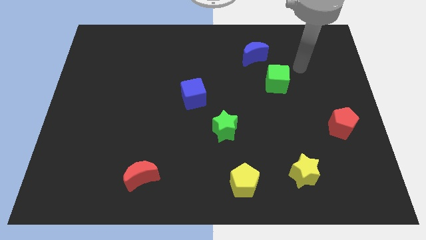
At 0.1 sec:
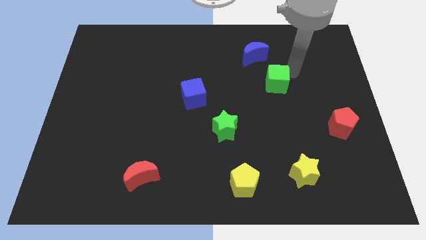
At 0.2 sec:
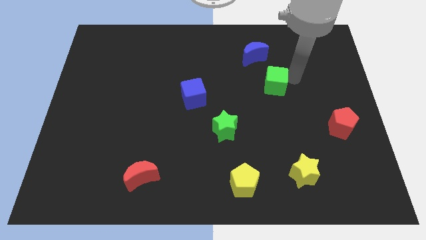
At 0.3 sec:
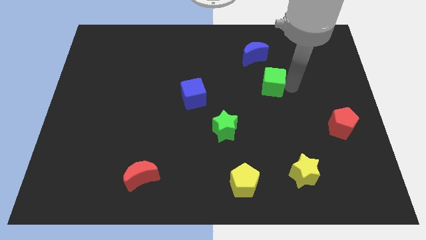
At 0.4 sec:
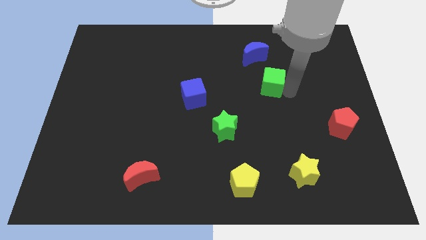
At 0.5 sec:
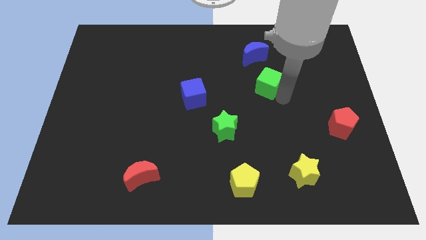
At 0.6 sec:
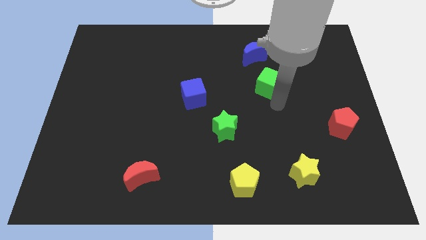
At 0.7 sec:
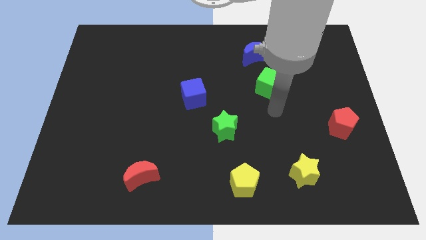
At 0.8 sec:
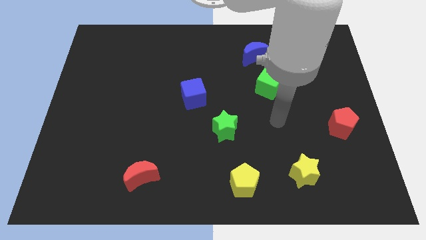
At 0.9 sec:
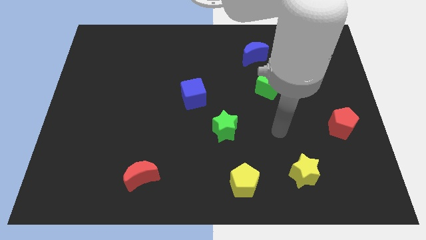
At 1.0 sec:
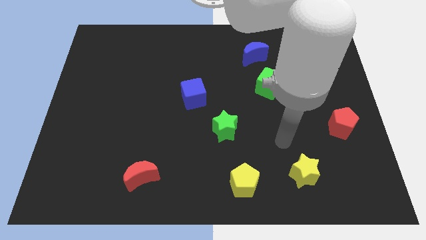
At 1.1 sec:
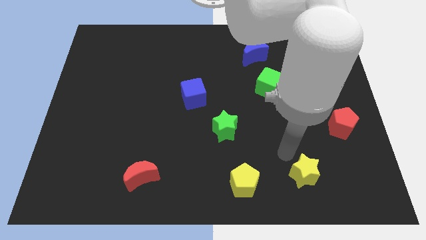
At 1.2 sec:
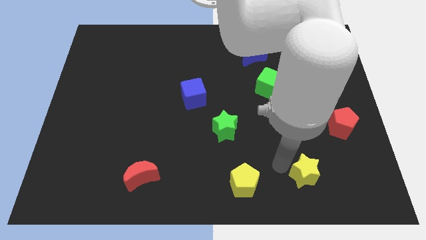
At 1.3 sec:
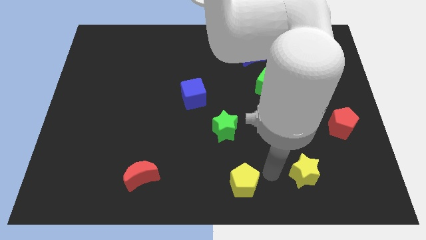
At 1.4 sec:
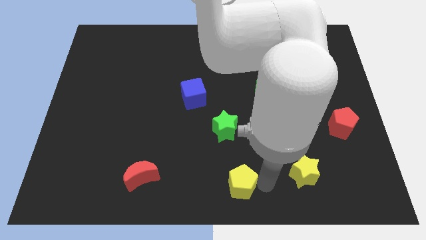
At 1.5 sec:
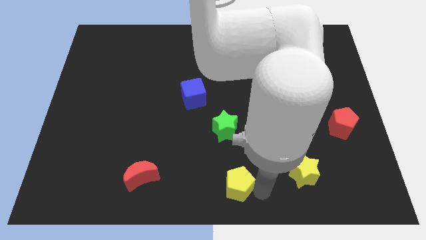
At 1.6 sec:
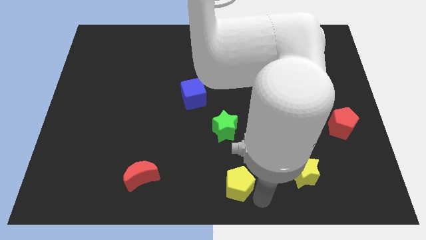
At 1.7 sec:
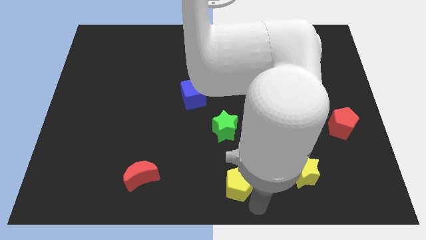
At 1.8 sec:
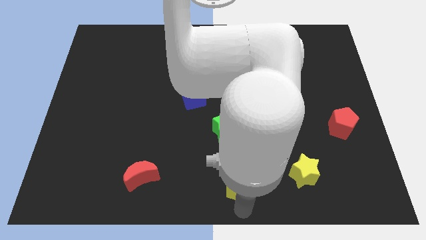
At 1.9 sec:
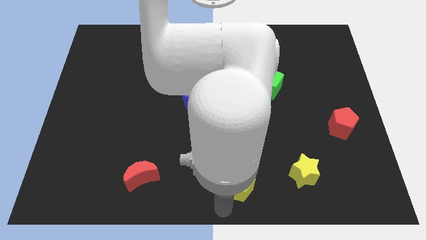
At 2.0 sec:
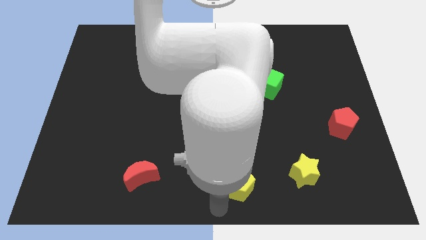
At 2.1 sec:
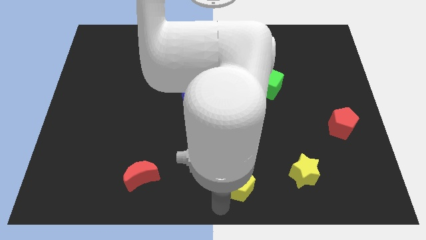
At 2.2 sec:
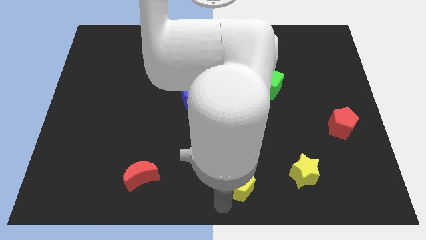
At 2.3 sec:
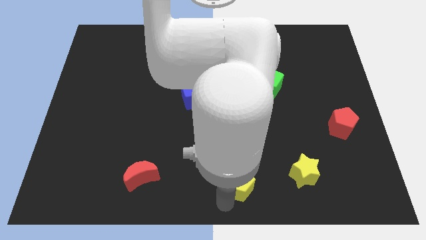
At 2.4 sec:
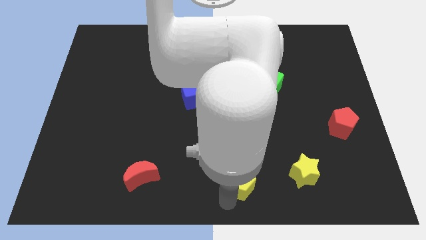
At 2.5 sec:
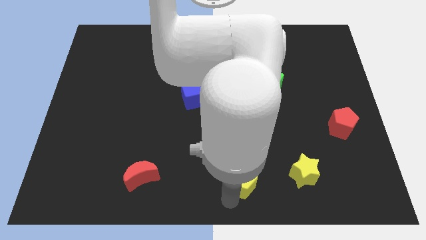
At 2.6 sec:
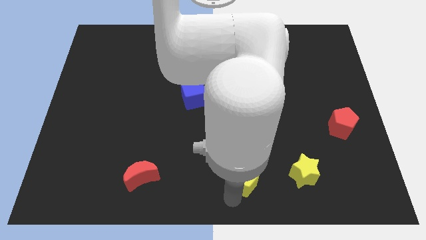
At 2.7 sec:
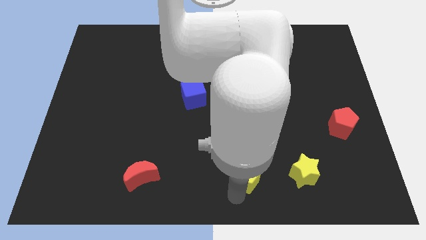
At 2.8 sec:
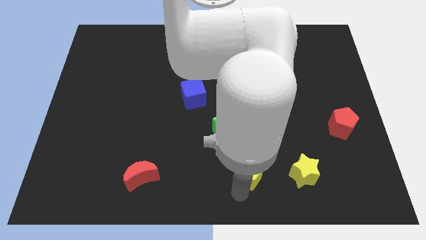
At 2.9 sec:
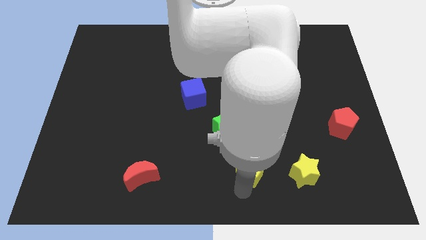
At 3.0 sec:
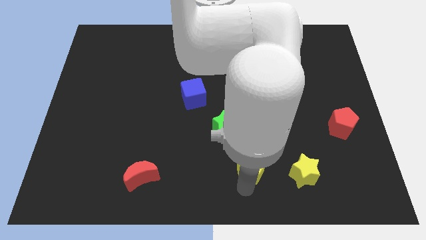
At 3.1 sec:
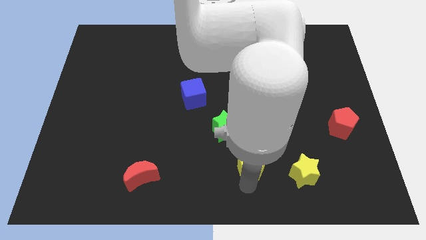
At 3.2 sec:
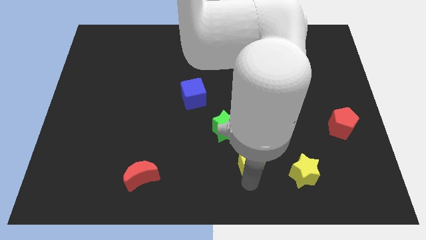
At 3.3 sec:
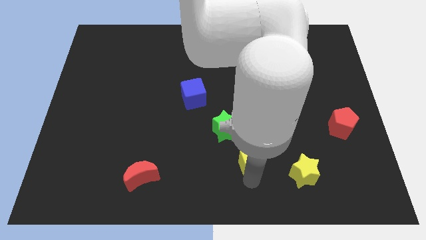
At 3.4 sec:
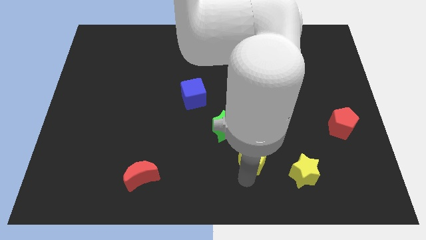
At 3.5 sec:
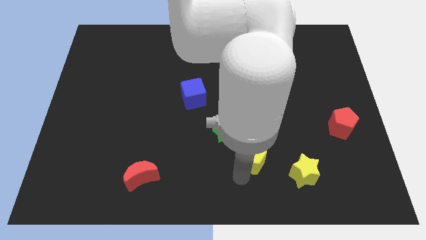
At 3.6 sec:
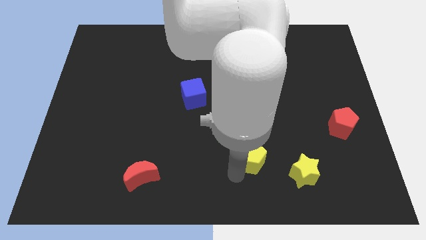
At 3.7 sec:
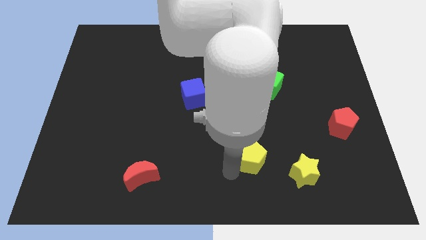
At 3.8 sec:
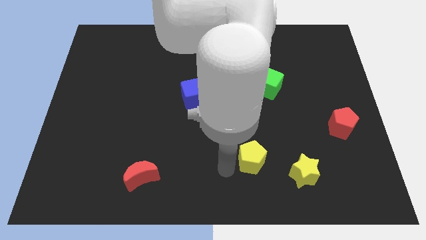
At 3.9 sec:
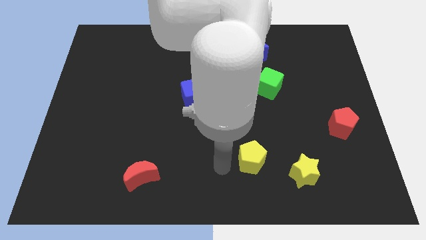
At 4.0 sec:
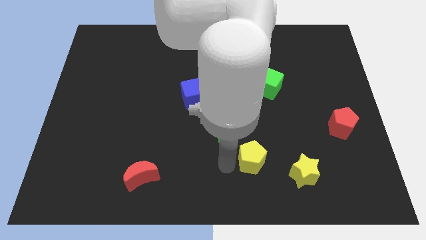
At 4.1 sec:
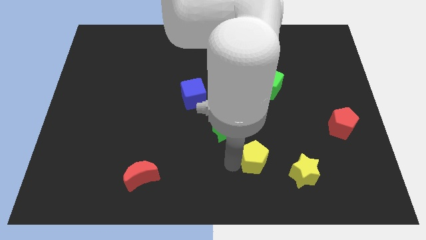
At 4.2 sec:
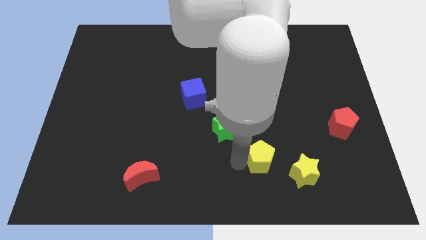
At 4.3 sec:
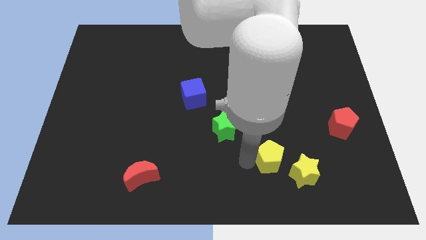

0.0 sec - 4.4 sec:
push the yellow pentagon a bit diagonally upwards and right

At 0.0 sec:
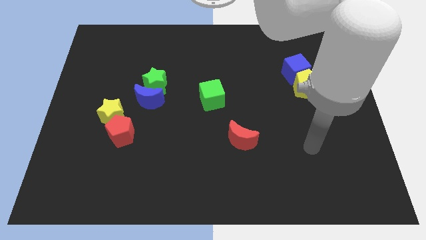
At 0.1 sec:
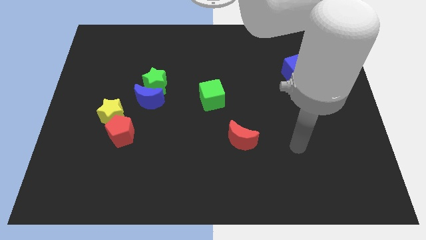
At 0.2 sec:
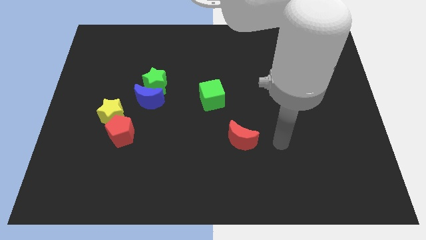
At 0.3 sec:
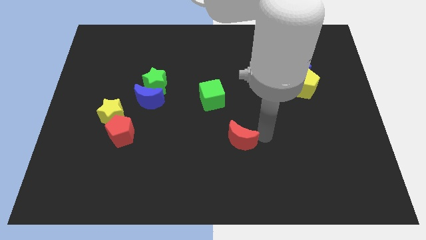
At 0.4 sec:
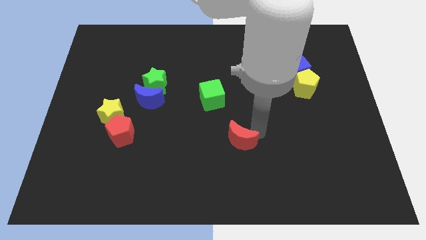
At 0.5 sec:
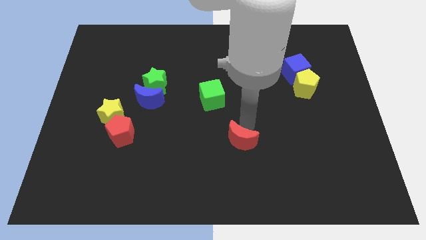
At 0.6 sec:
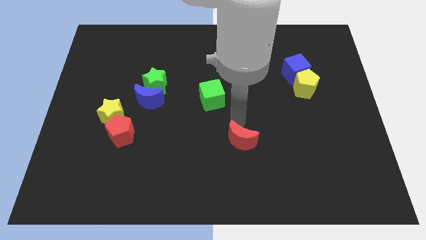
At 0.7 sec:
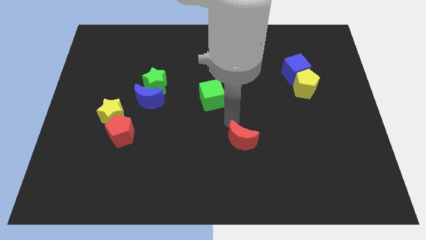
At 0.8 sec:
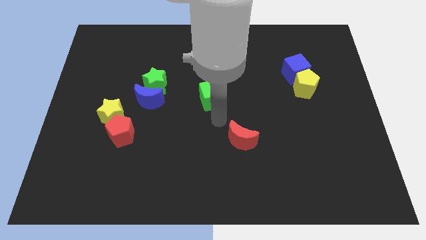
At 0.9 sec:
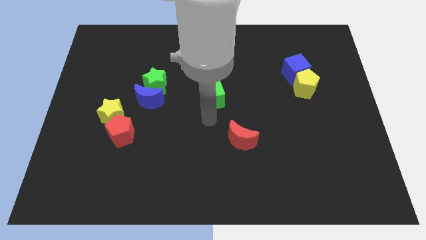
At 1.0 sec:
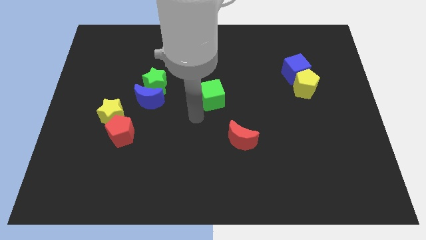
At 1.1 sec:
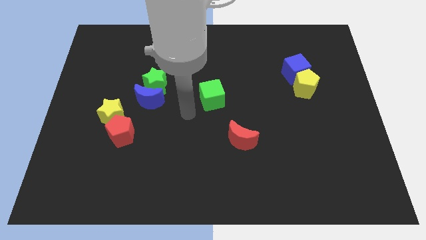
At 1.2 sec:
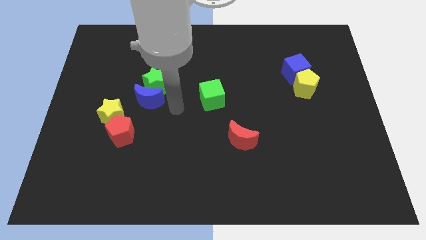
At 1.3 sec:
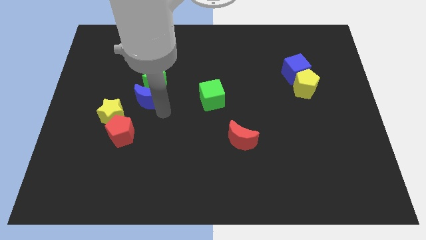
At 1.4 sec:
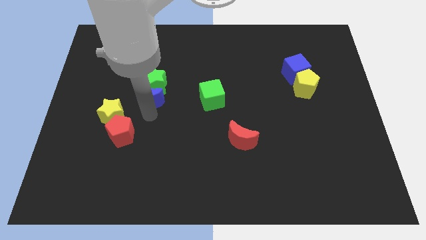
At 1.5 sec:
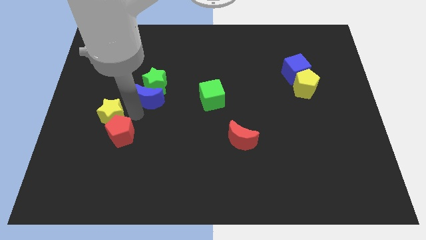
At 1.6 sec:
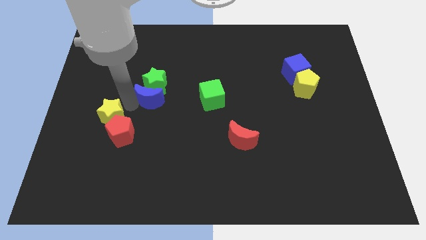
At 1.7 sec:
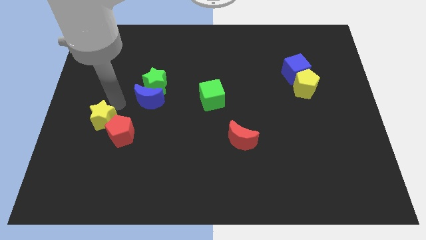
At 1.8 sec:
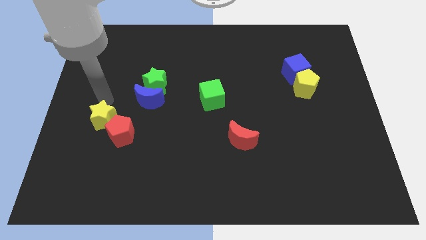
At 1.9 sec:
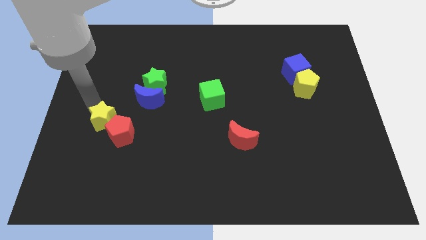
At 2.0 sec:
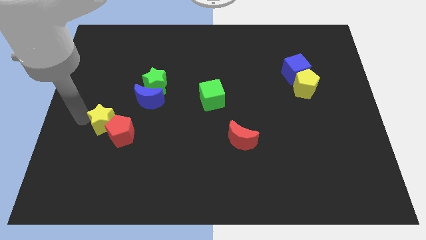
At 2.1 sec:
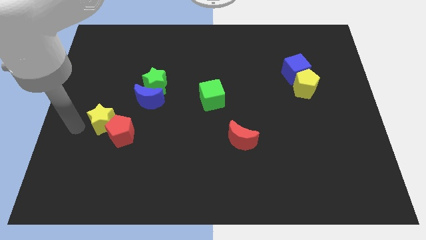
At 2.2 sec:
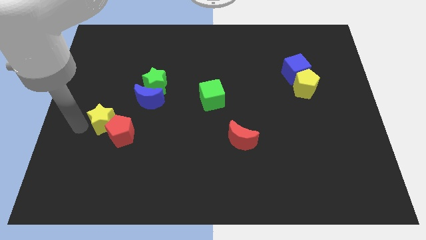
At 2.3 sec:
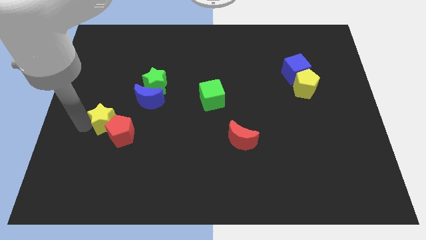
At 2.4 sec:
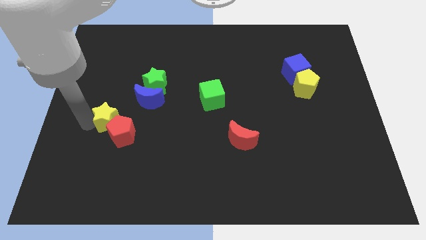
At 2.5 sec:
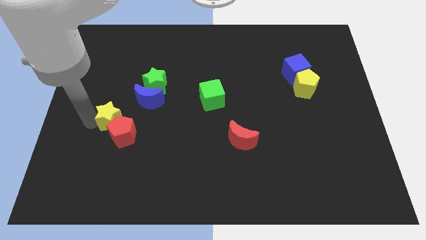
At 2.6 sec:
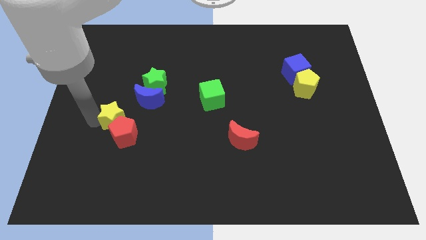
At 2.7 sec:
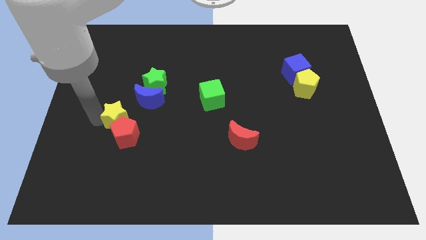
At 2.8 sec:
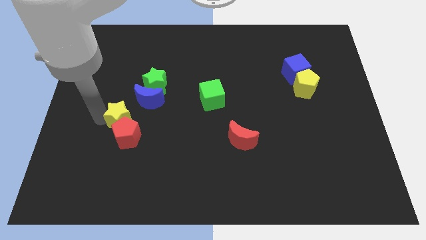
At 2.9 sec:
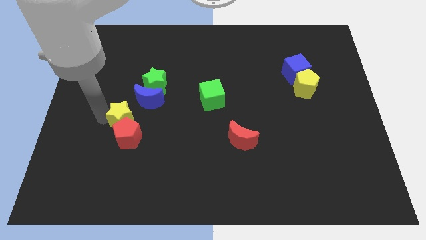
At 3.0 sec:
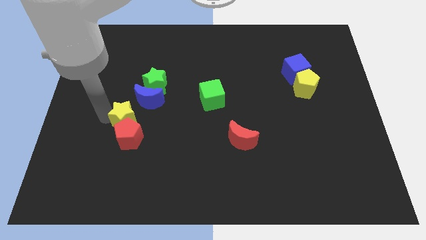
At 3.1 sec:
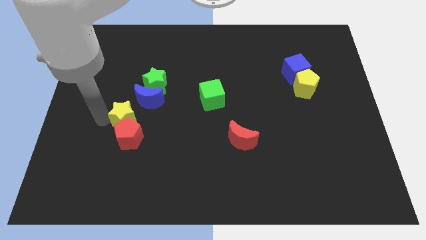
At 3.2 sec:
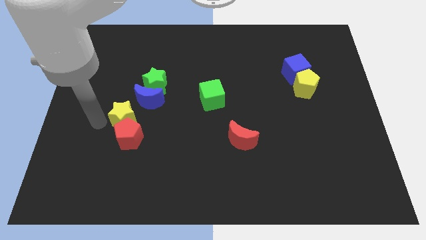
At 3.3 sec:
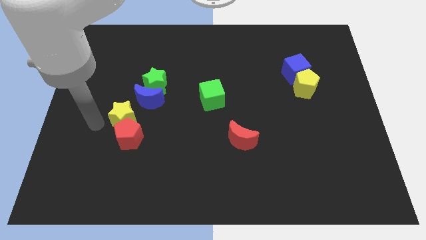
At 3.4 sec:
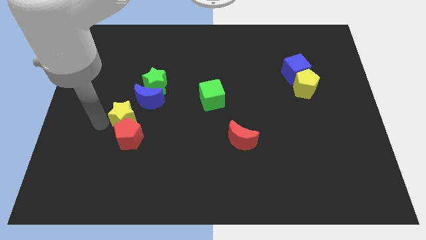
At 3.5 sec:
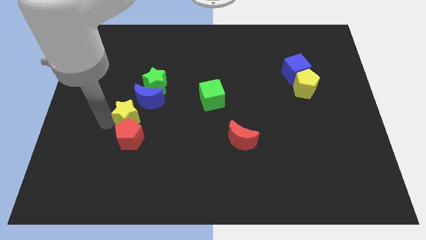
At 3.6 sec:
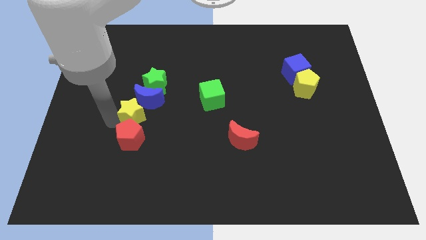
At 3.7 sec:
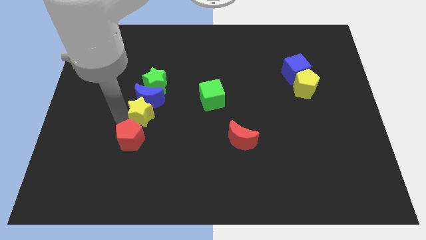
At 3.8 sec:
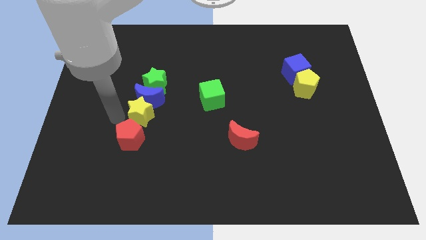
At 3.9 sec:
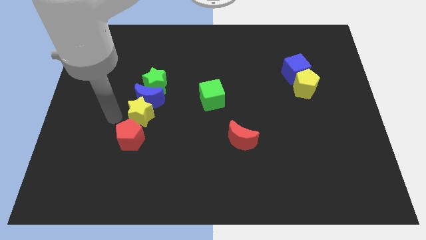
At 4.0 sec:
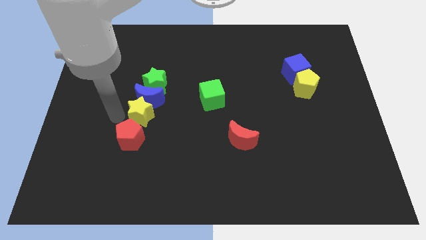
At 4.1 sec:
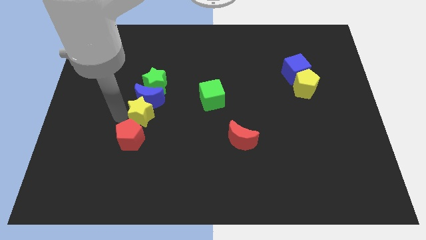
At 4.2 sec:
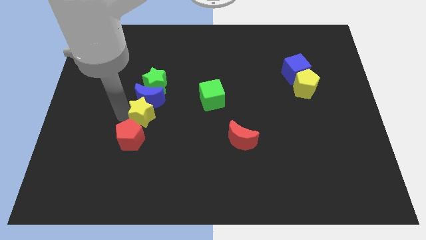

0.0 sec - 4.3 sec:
slide the yellow star to the right slightly
